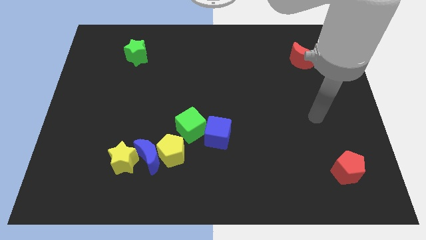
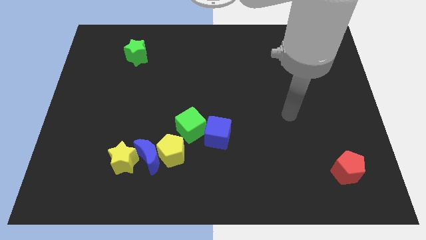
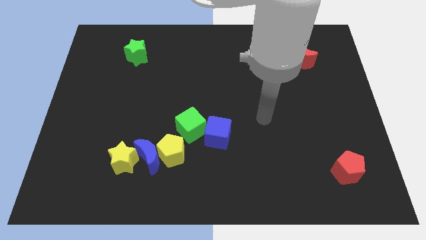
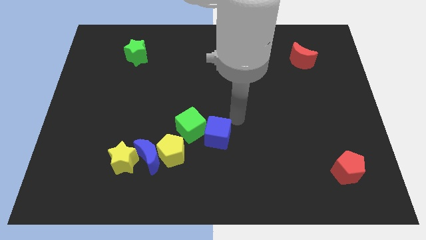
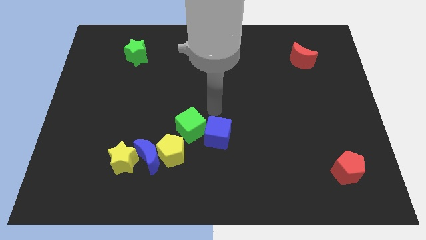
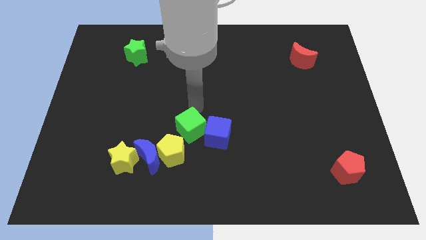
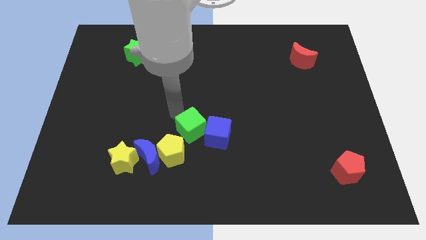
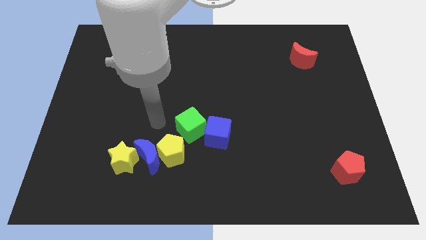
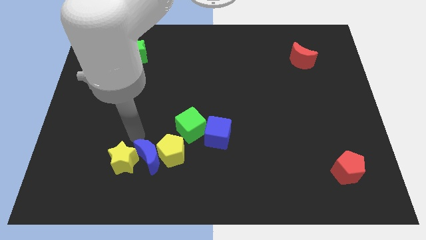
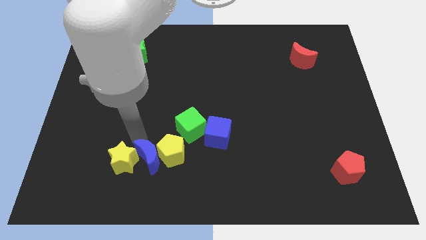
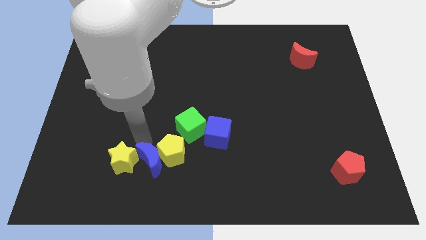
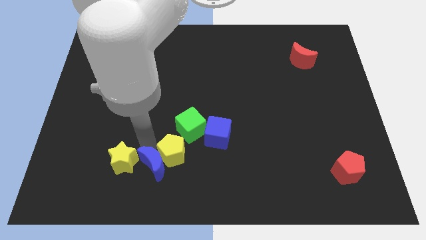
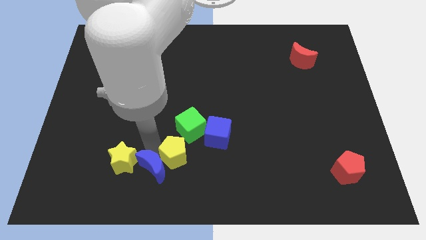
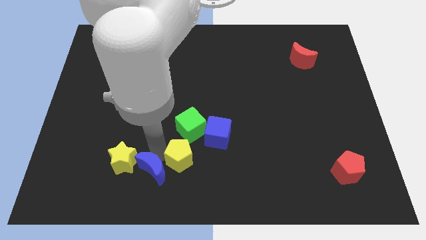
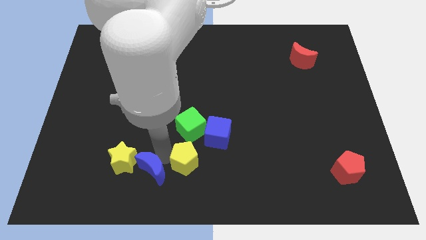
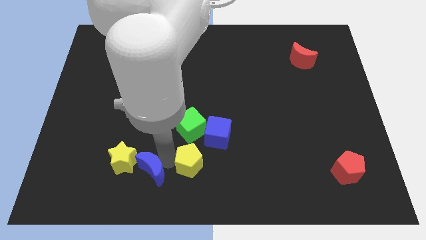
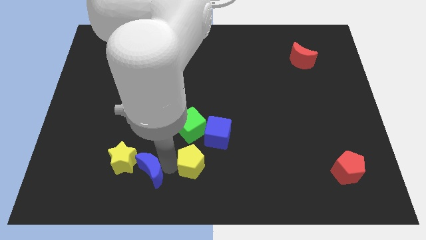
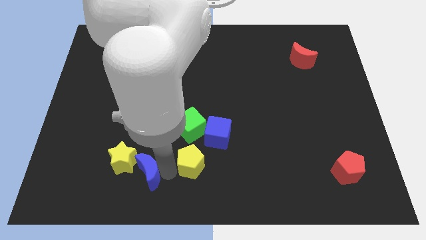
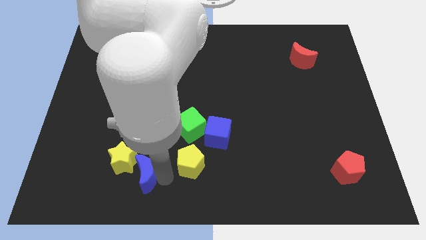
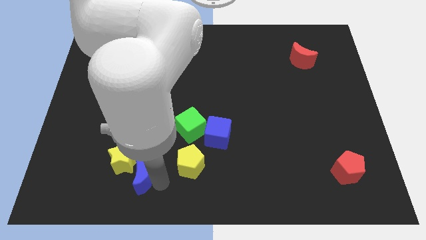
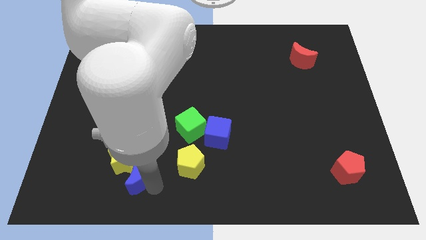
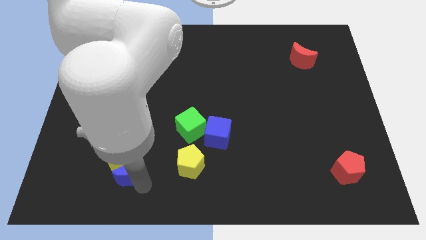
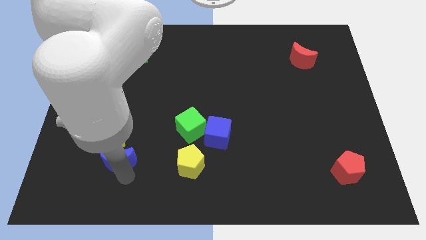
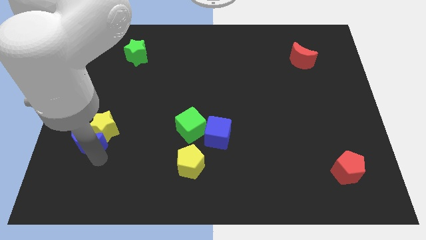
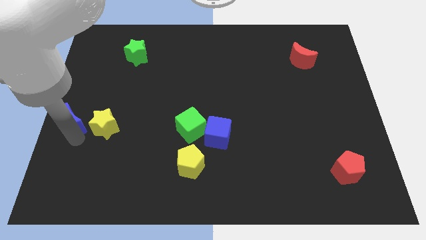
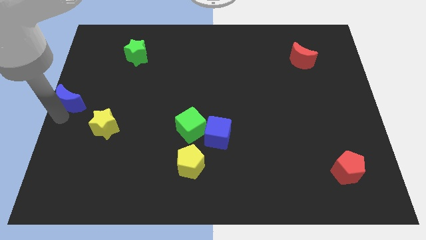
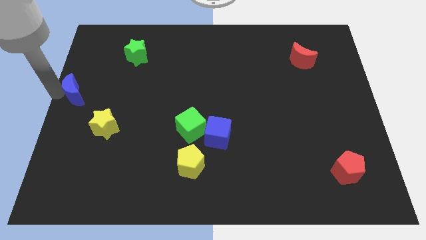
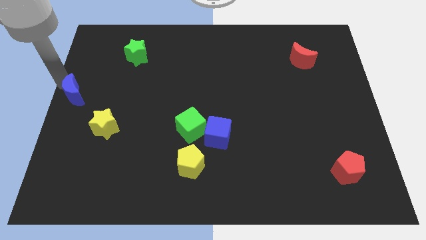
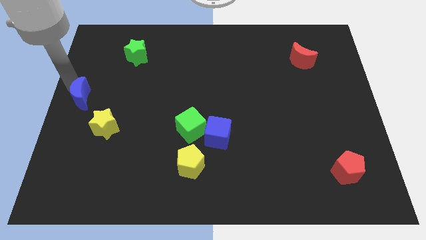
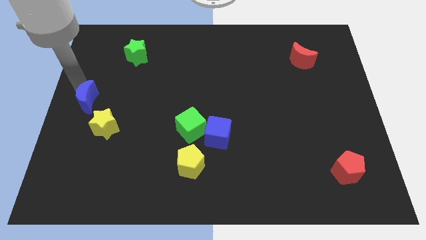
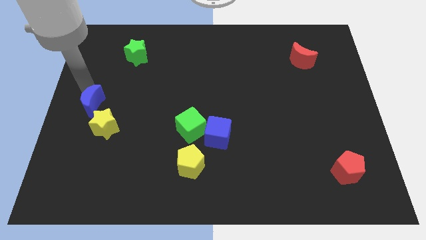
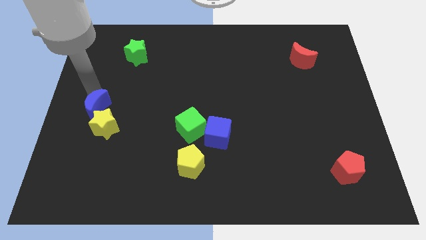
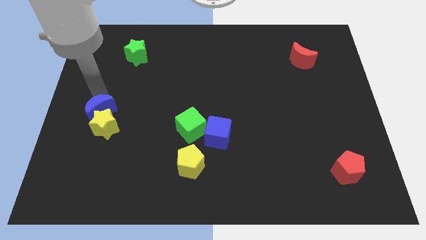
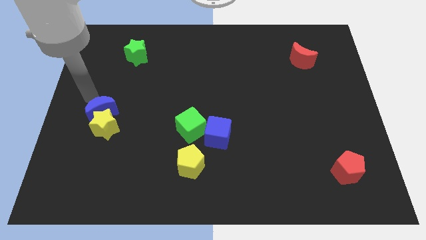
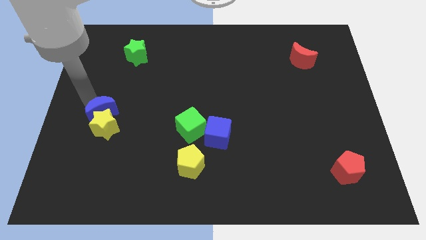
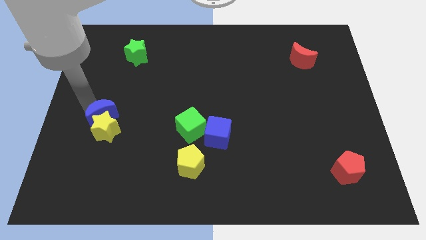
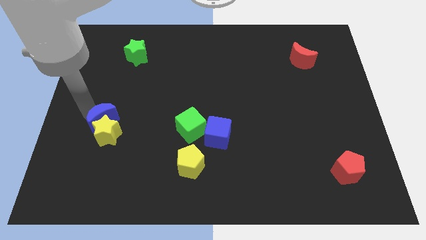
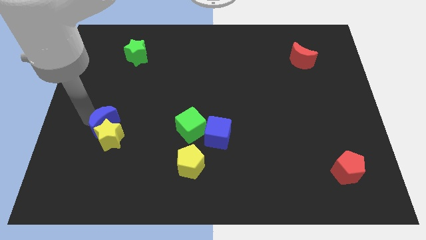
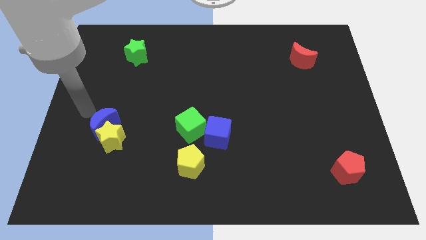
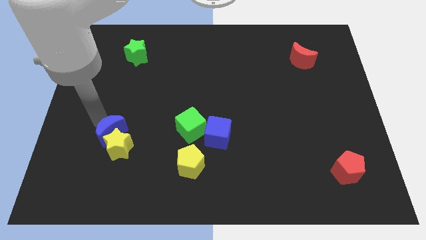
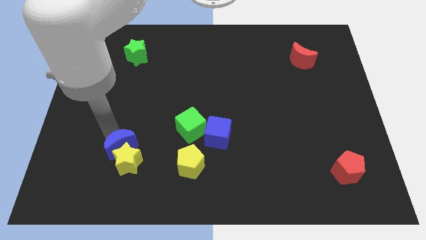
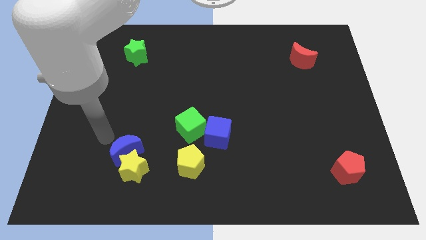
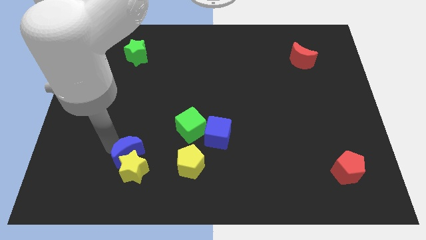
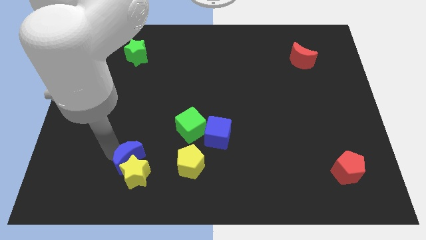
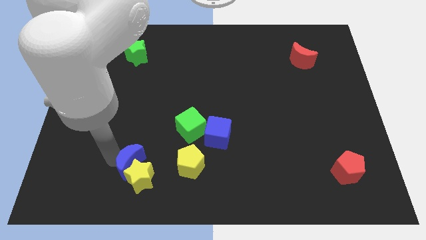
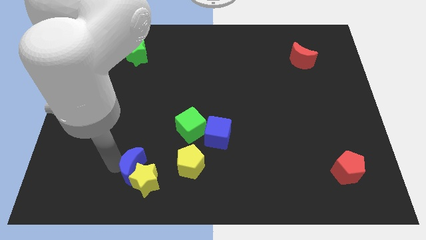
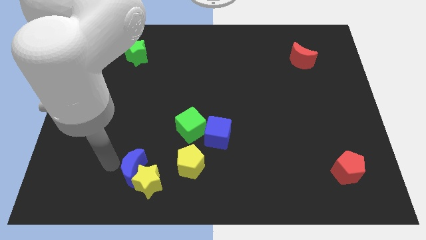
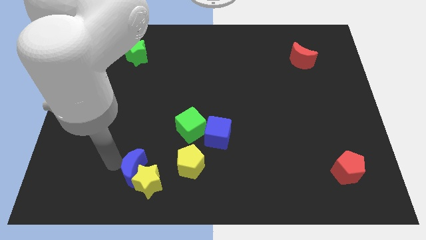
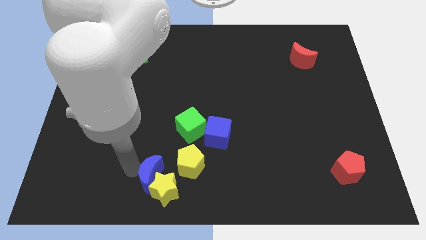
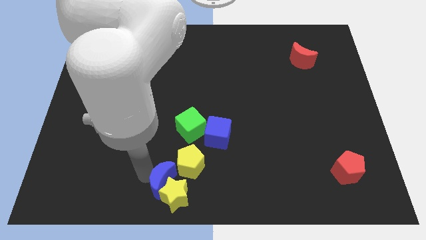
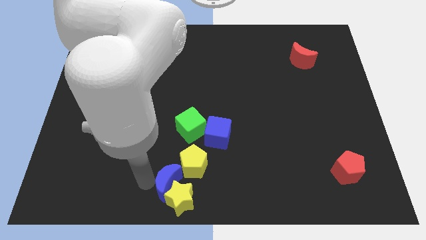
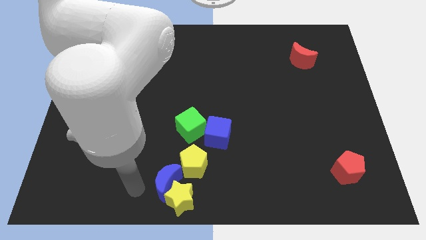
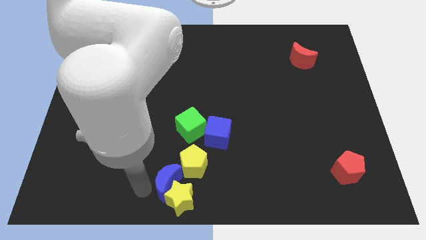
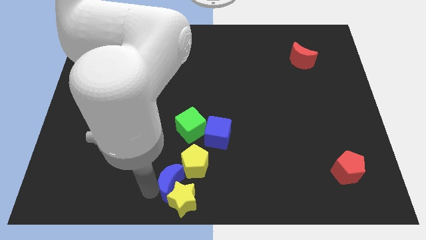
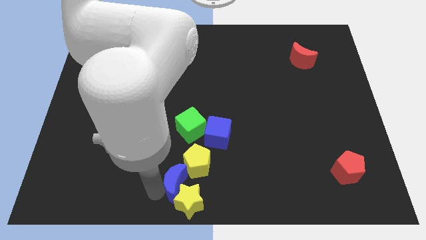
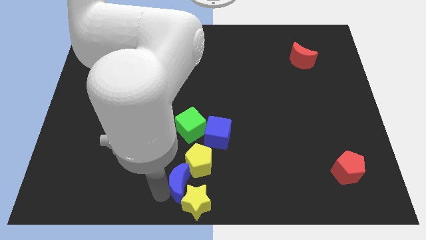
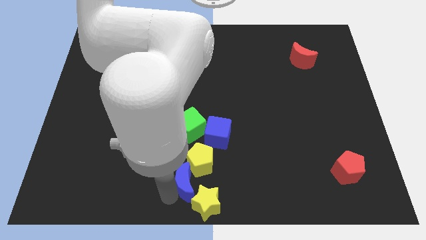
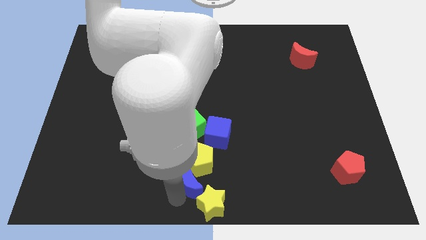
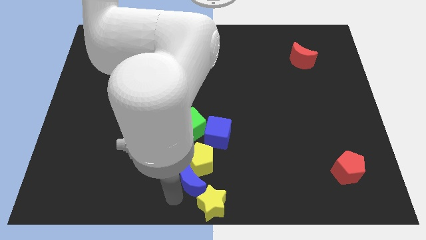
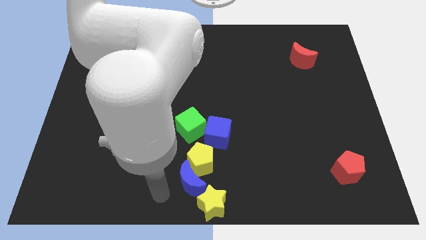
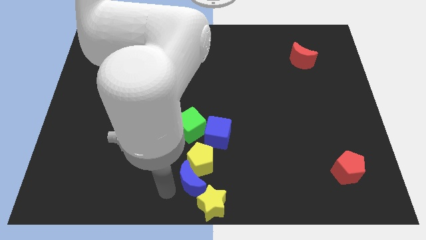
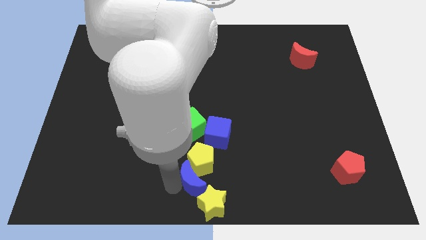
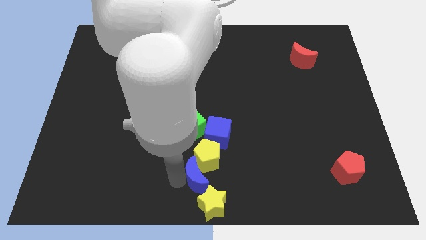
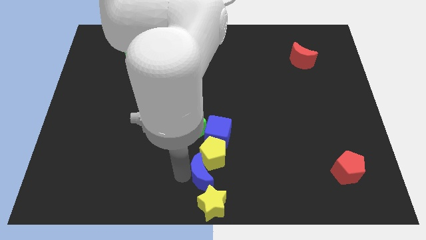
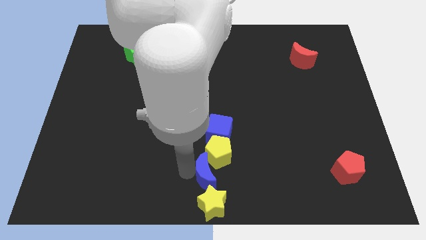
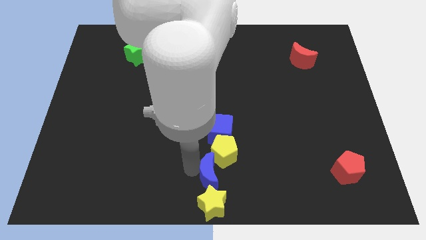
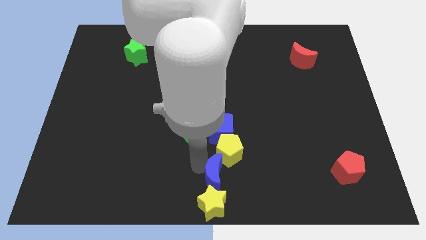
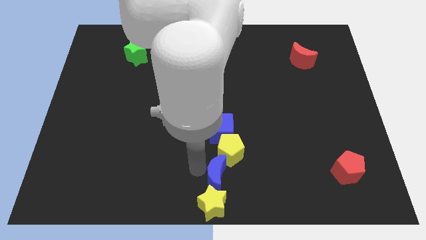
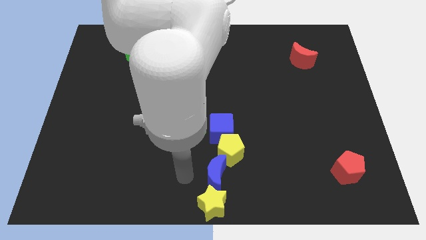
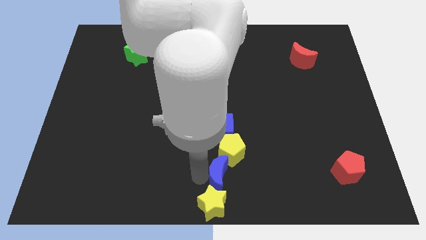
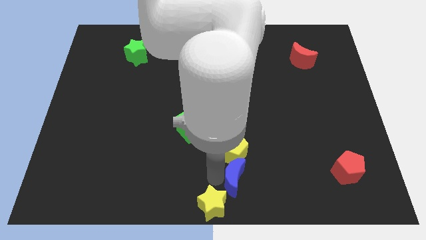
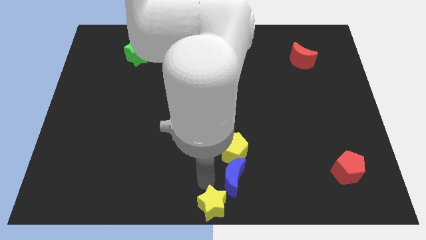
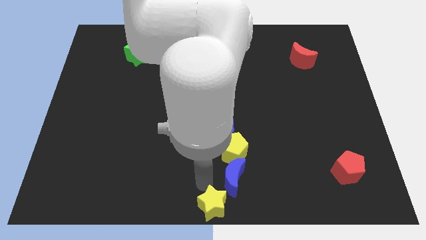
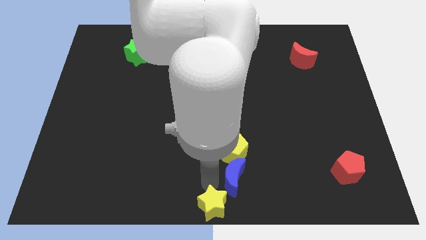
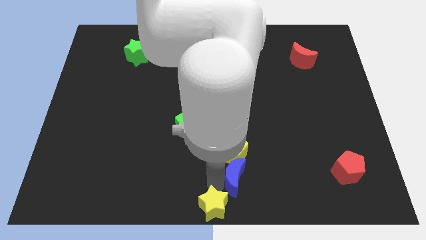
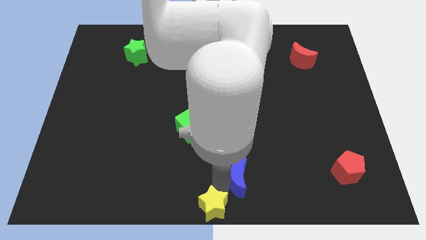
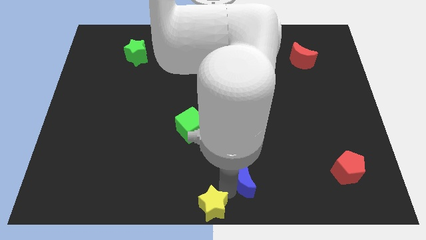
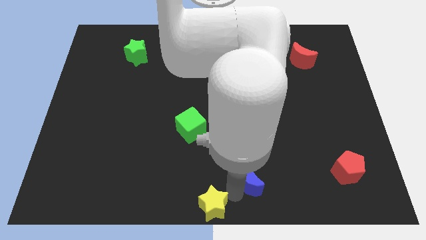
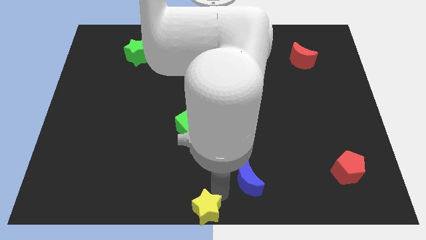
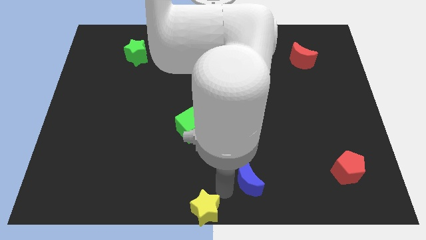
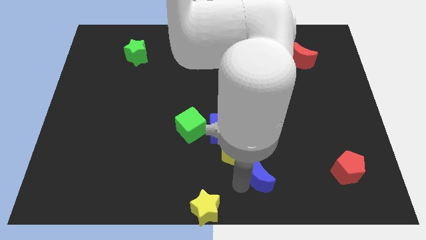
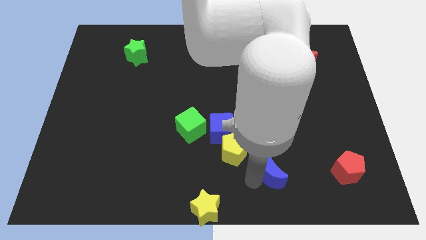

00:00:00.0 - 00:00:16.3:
push the blue moon to the left of the red pentagon
